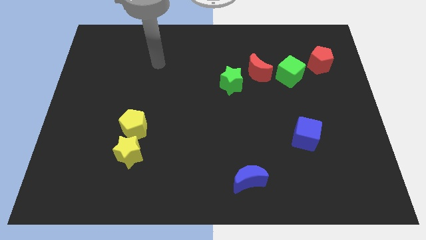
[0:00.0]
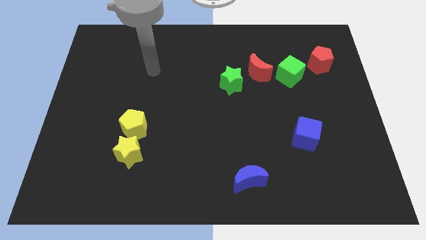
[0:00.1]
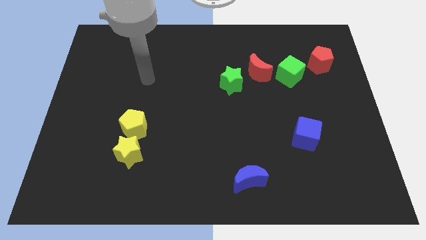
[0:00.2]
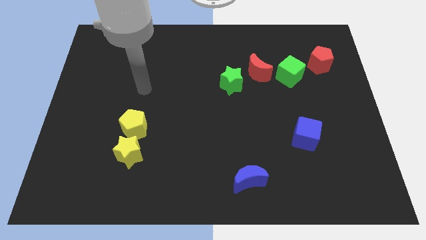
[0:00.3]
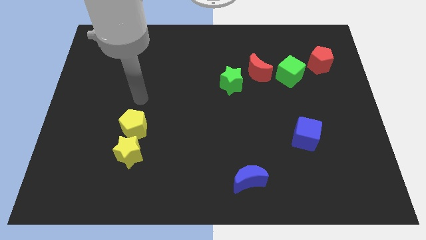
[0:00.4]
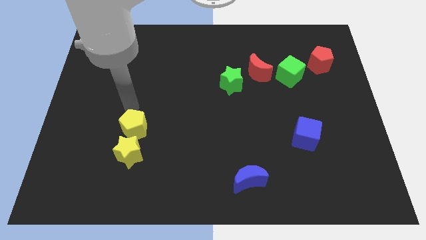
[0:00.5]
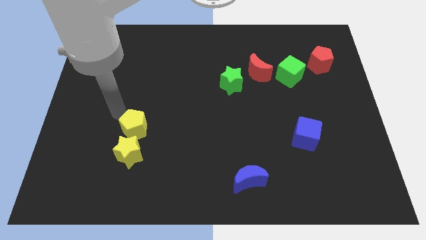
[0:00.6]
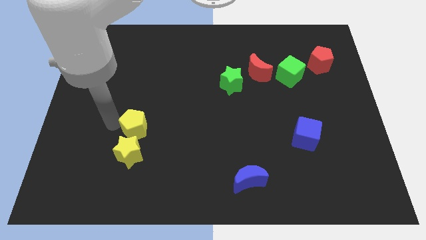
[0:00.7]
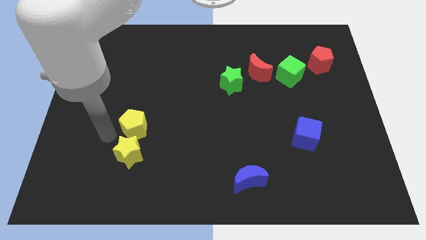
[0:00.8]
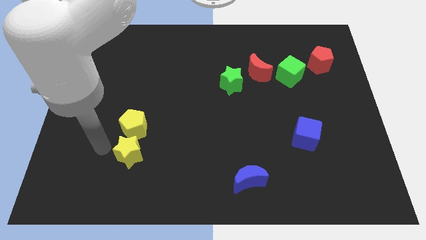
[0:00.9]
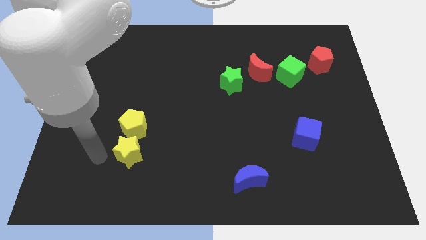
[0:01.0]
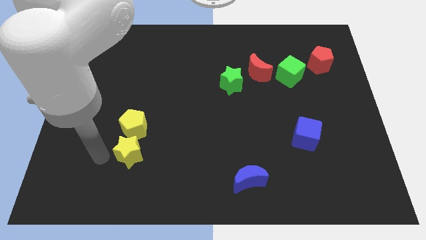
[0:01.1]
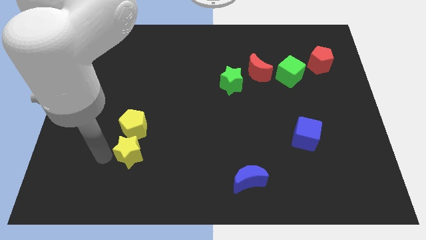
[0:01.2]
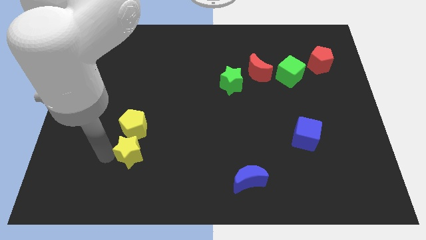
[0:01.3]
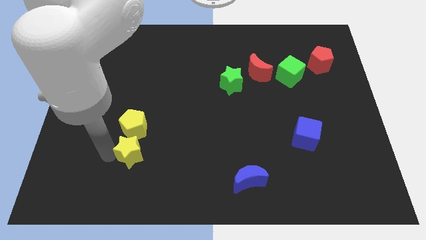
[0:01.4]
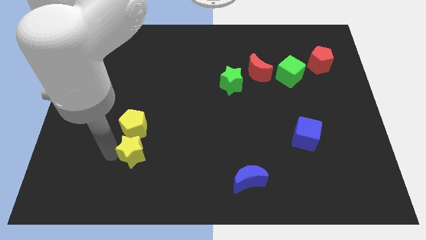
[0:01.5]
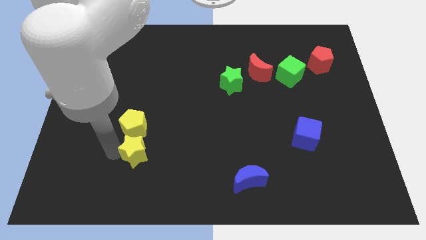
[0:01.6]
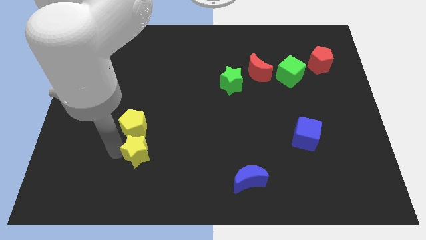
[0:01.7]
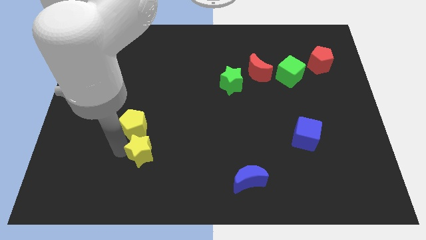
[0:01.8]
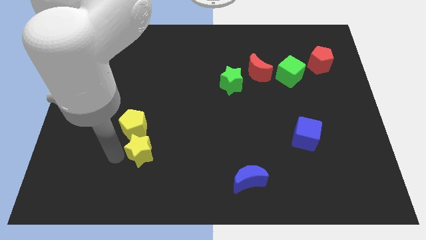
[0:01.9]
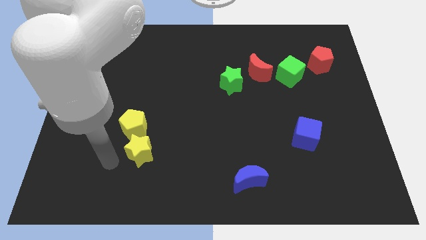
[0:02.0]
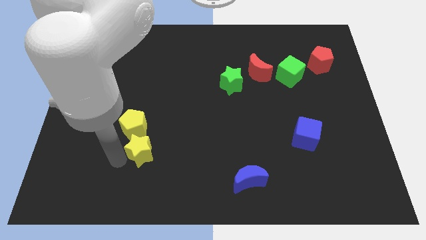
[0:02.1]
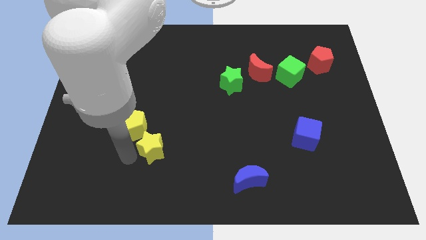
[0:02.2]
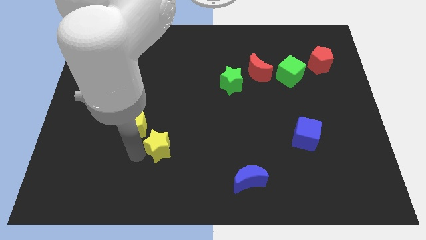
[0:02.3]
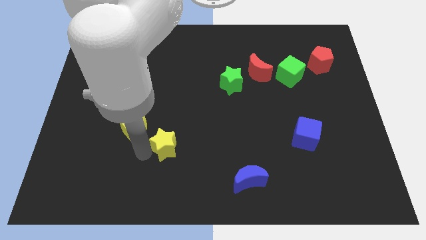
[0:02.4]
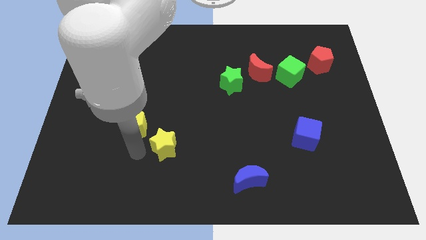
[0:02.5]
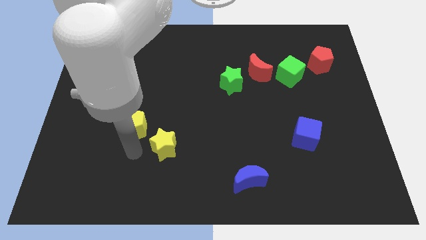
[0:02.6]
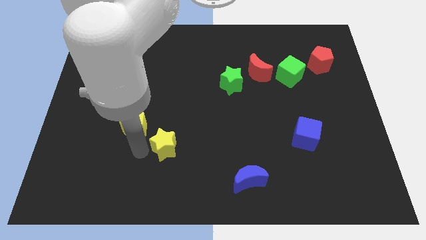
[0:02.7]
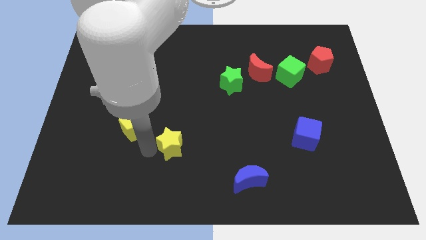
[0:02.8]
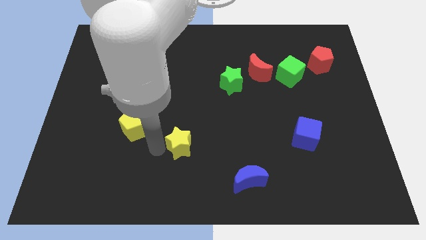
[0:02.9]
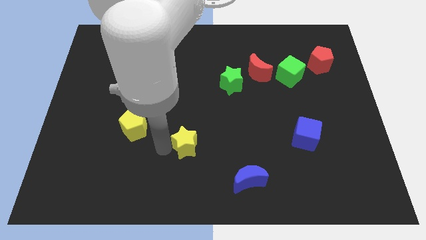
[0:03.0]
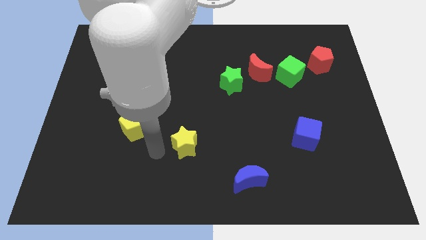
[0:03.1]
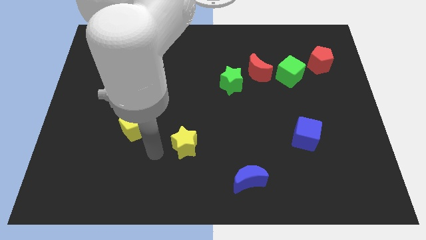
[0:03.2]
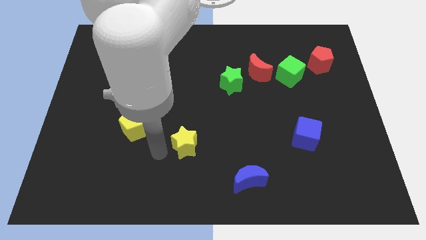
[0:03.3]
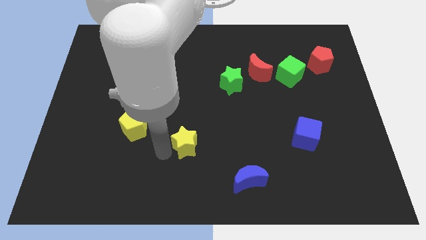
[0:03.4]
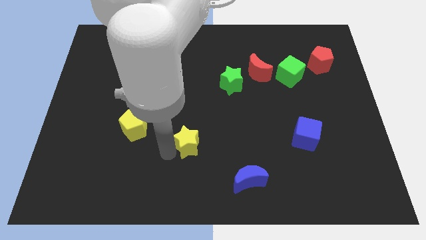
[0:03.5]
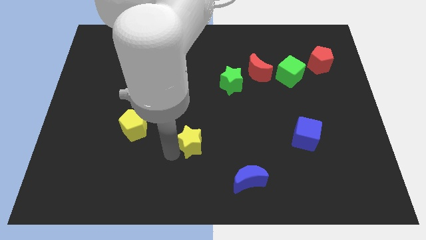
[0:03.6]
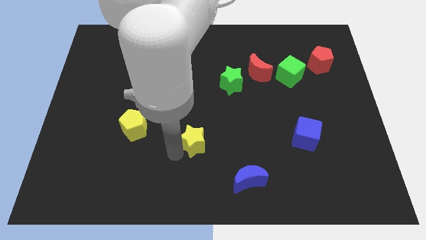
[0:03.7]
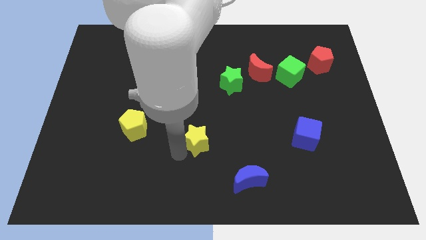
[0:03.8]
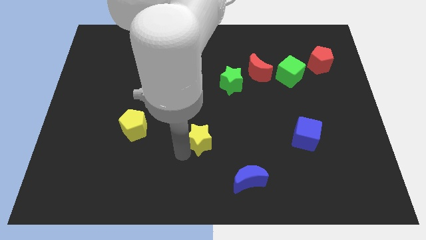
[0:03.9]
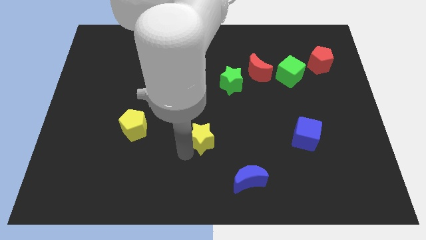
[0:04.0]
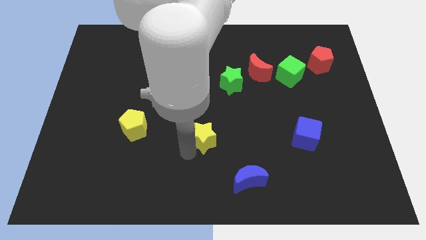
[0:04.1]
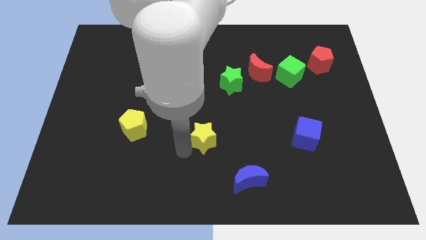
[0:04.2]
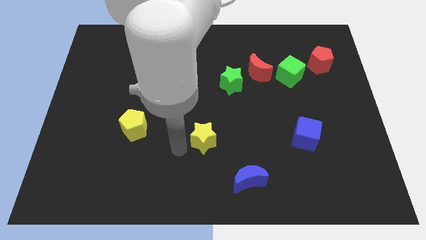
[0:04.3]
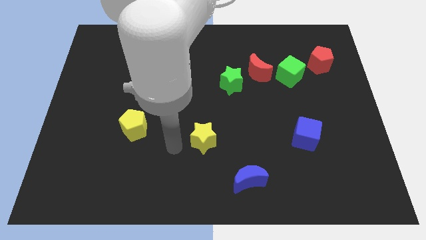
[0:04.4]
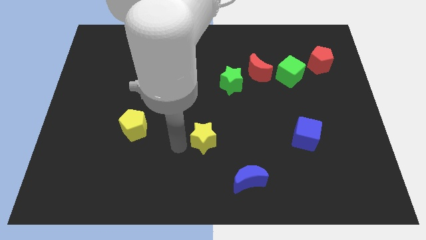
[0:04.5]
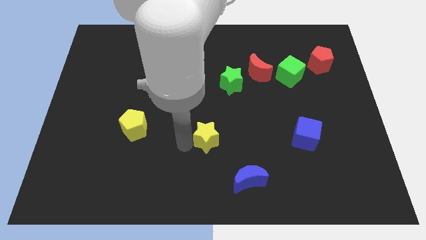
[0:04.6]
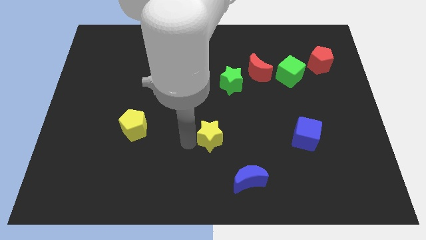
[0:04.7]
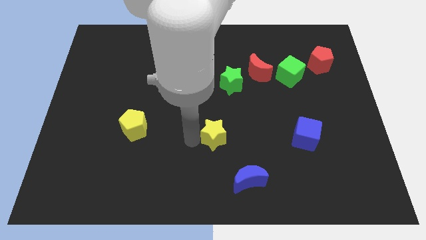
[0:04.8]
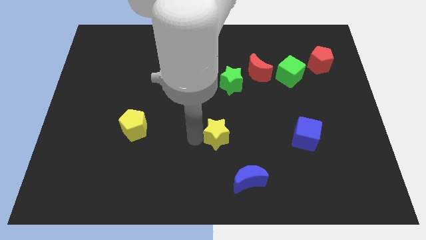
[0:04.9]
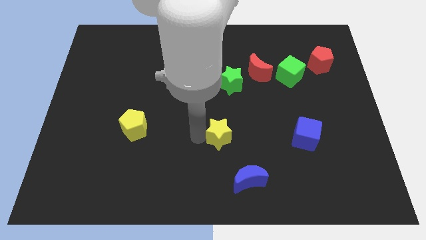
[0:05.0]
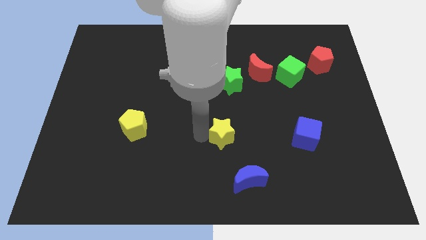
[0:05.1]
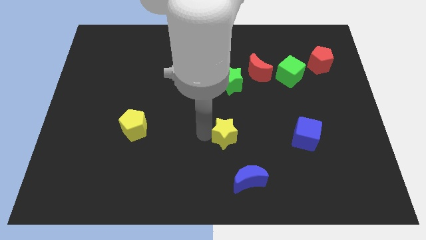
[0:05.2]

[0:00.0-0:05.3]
push the yellow star above the blue moon

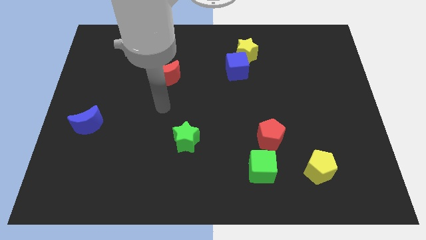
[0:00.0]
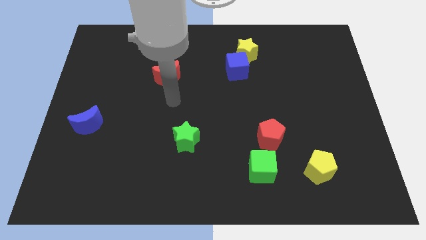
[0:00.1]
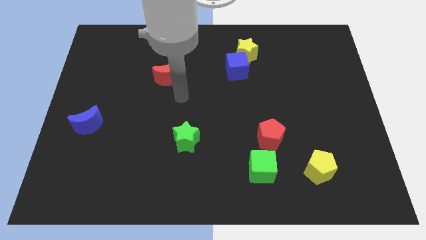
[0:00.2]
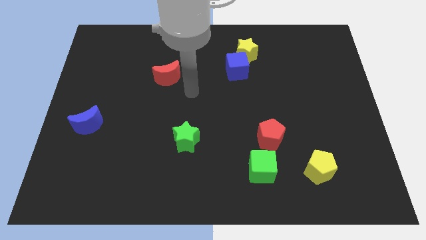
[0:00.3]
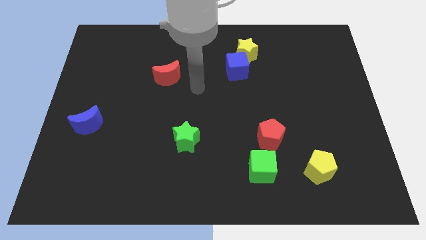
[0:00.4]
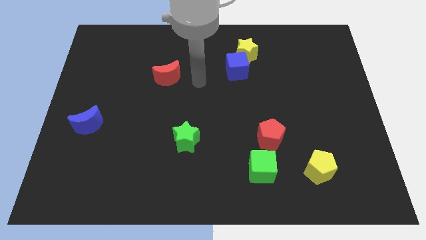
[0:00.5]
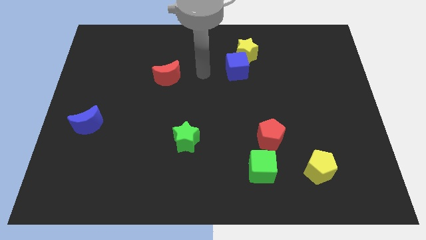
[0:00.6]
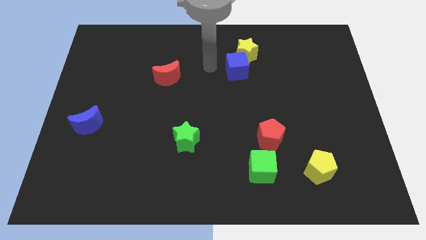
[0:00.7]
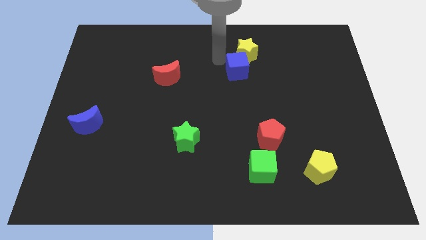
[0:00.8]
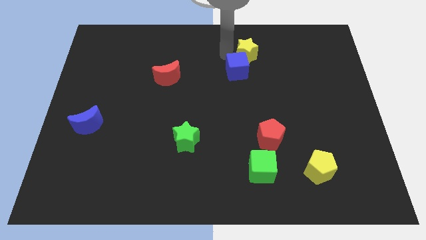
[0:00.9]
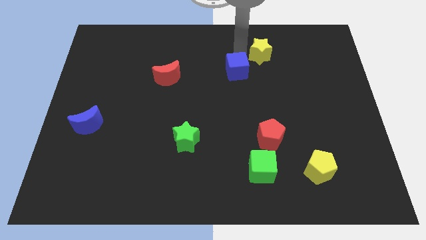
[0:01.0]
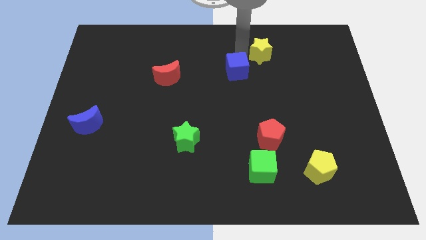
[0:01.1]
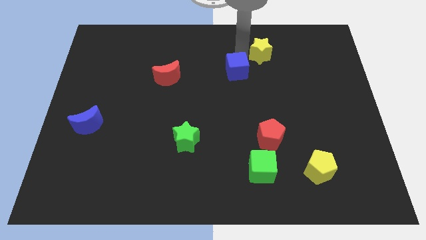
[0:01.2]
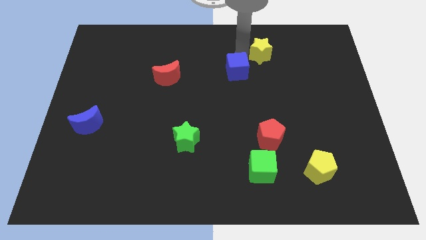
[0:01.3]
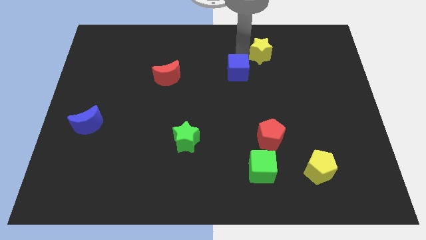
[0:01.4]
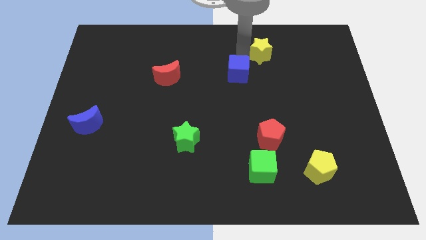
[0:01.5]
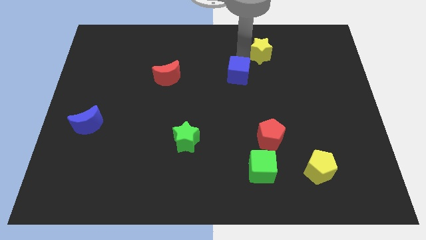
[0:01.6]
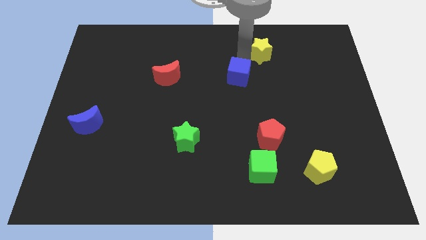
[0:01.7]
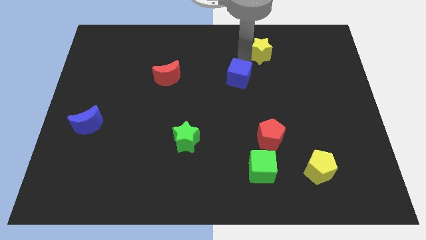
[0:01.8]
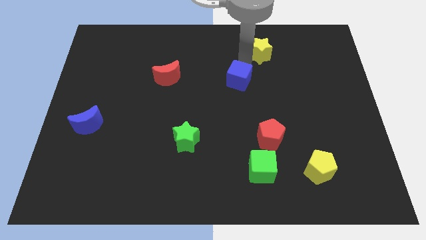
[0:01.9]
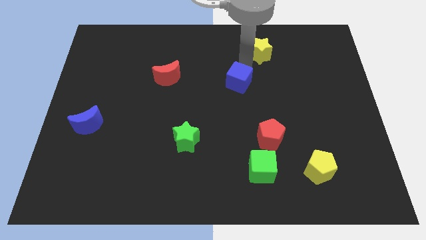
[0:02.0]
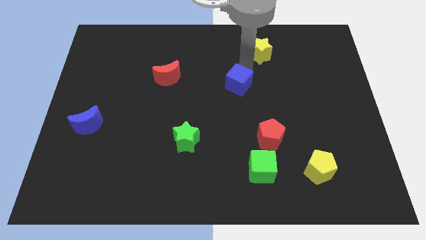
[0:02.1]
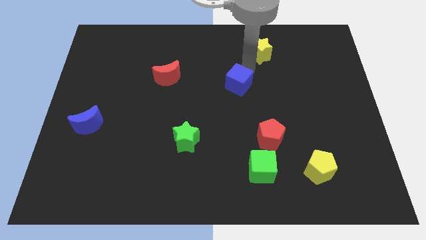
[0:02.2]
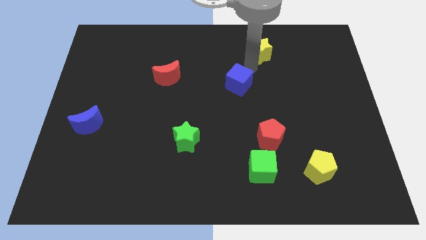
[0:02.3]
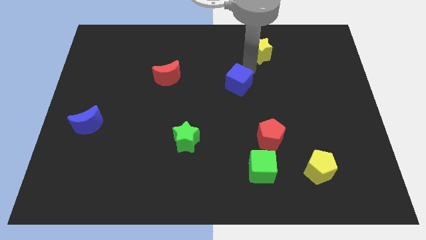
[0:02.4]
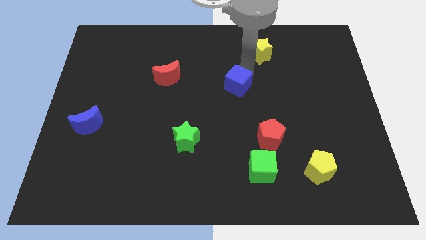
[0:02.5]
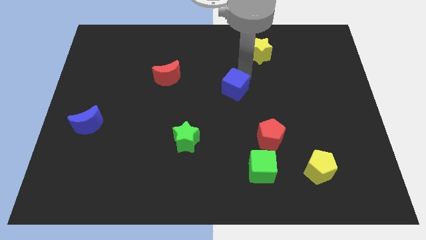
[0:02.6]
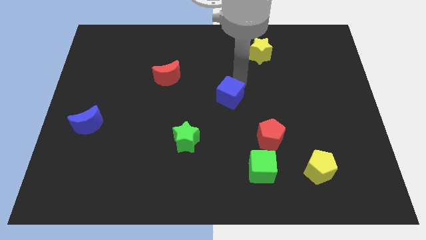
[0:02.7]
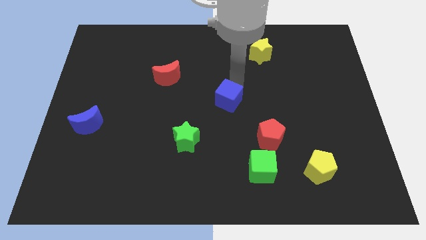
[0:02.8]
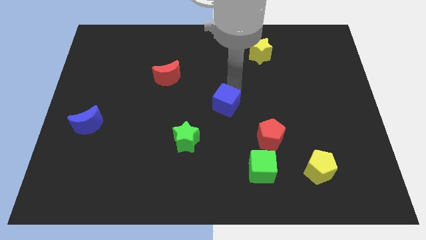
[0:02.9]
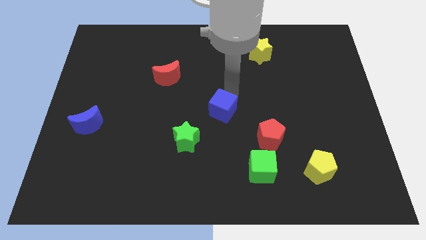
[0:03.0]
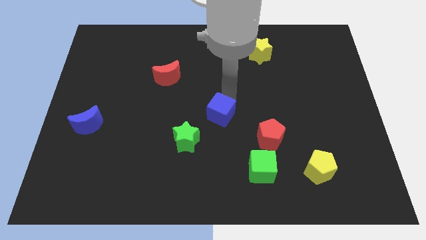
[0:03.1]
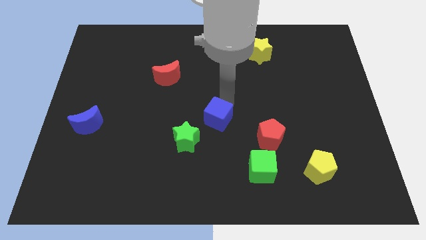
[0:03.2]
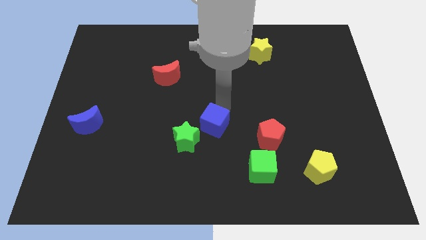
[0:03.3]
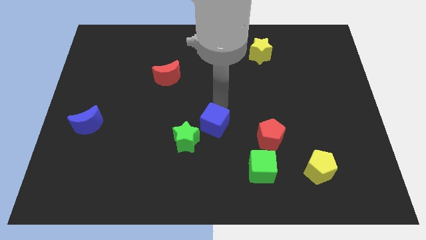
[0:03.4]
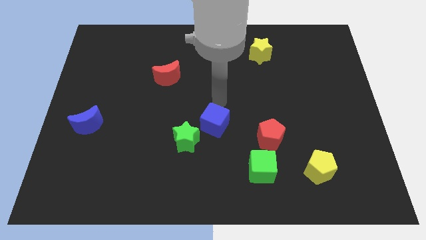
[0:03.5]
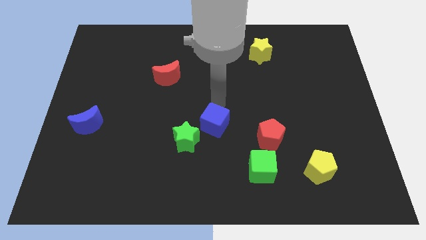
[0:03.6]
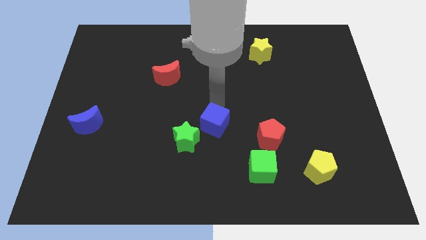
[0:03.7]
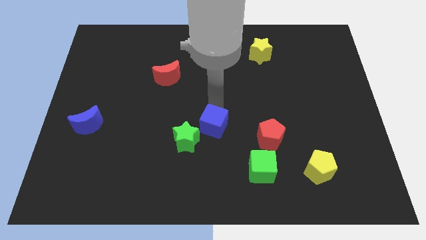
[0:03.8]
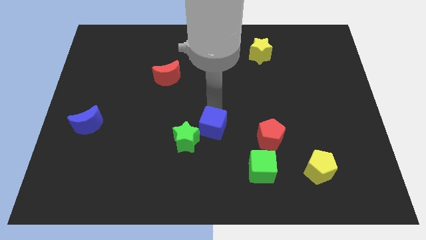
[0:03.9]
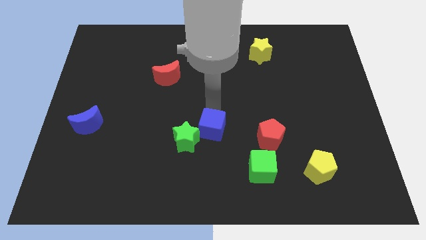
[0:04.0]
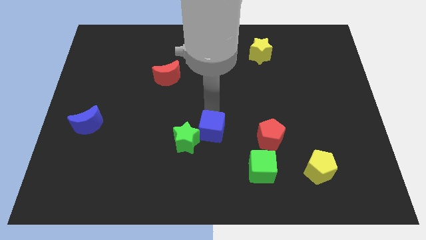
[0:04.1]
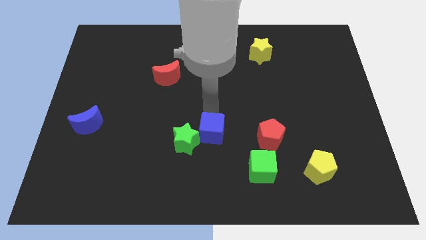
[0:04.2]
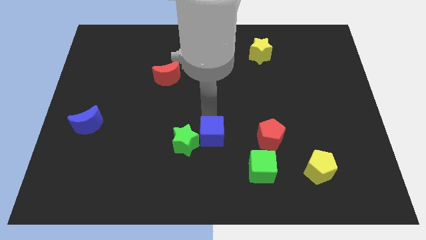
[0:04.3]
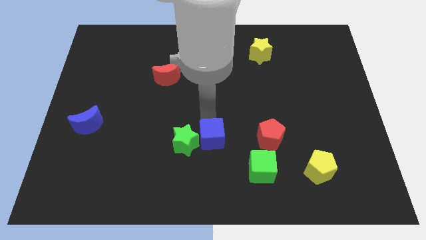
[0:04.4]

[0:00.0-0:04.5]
put the blue cube diagonally down and to the right of the green star
